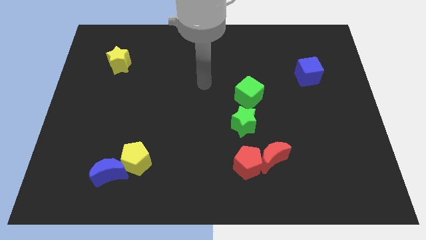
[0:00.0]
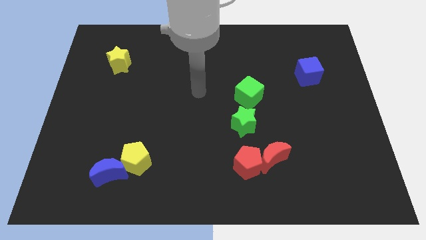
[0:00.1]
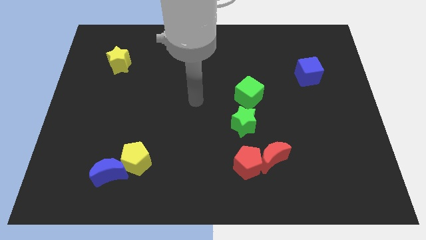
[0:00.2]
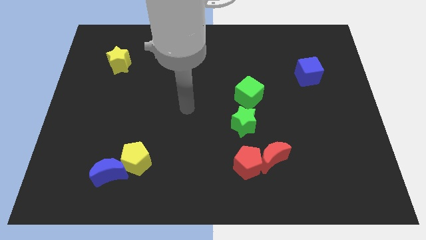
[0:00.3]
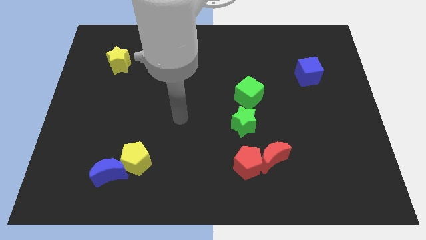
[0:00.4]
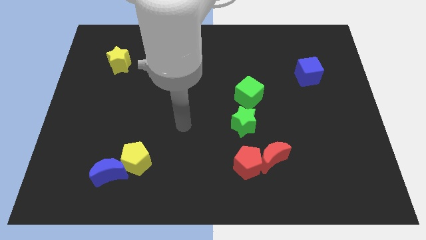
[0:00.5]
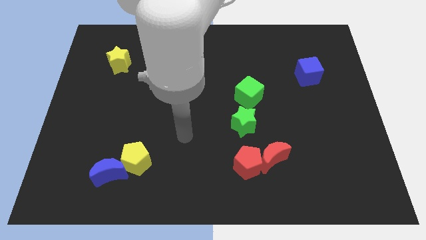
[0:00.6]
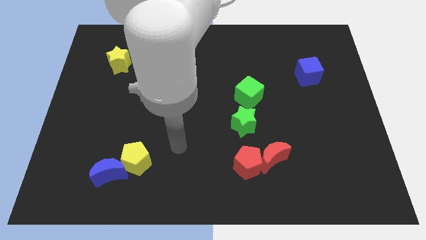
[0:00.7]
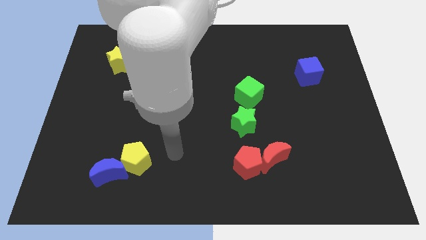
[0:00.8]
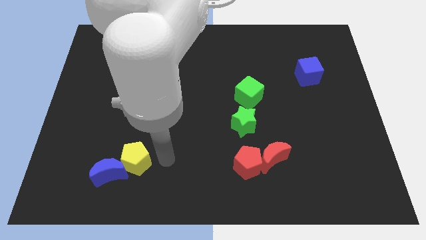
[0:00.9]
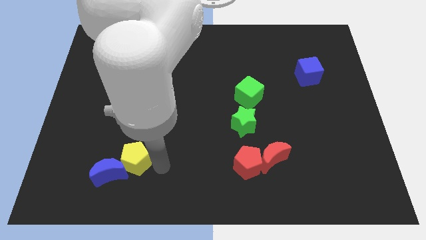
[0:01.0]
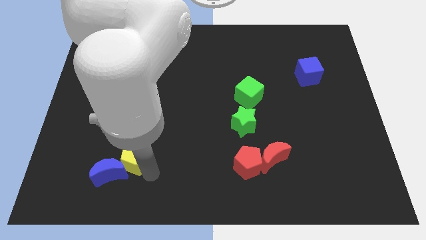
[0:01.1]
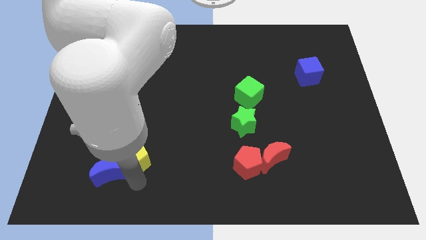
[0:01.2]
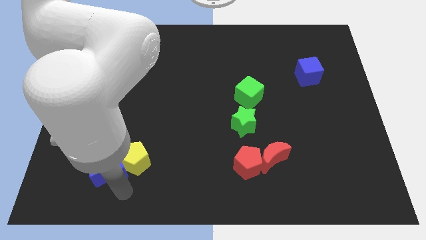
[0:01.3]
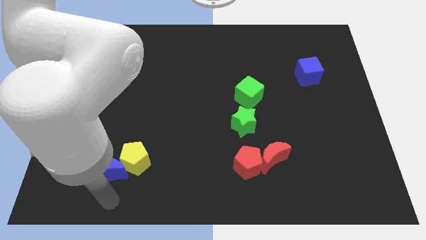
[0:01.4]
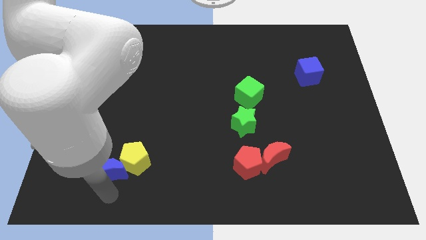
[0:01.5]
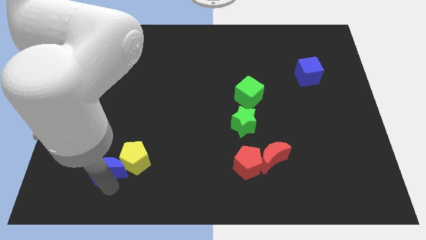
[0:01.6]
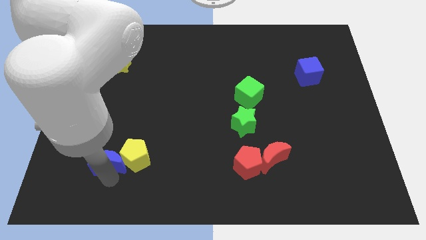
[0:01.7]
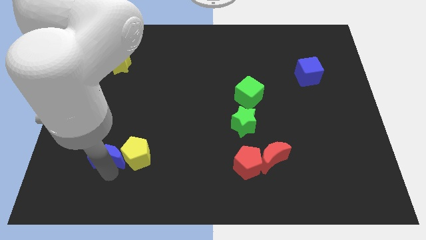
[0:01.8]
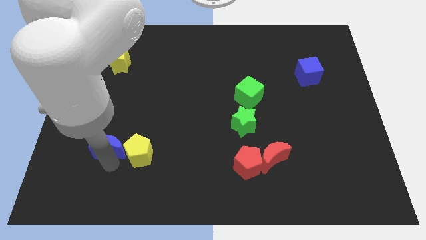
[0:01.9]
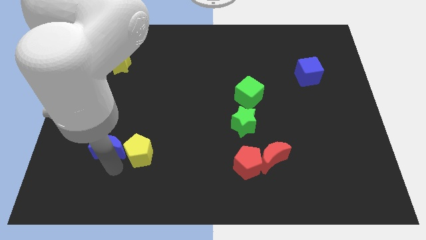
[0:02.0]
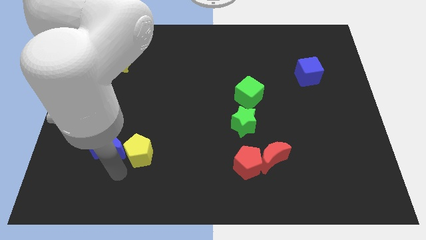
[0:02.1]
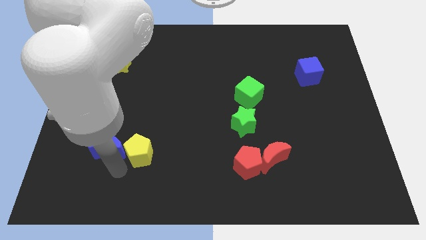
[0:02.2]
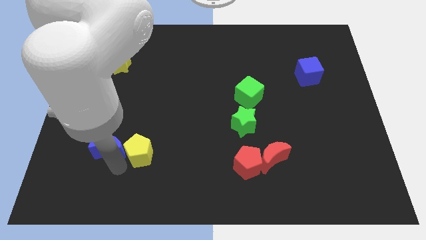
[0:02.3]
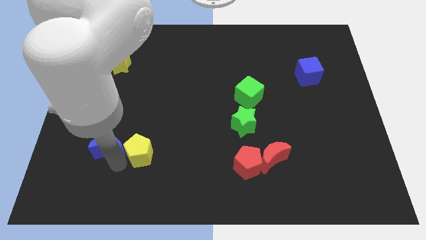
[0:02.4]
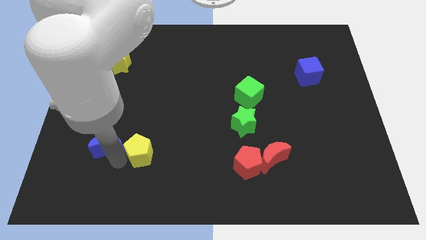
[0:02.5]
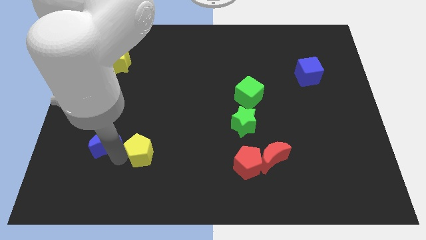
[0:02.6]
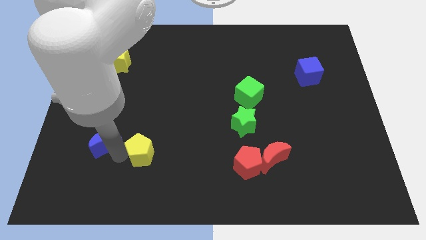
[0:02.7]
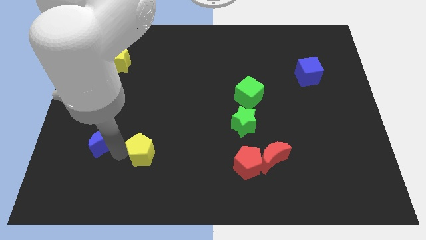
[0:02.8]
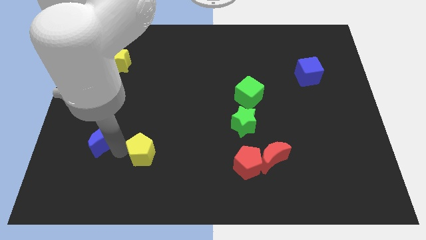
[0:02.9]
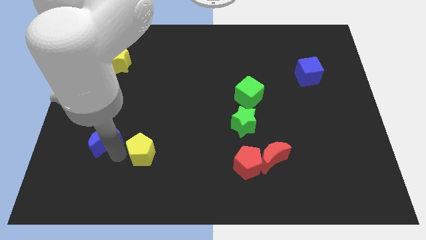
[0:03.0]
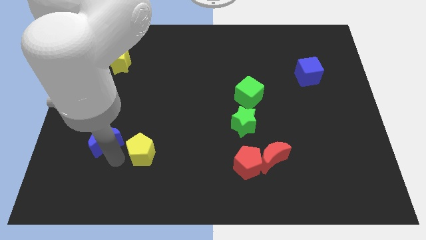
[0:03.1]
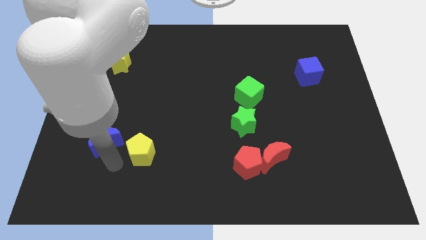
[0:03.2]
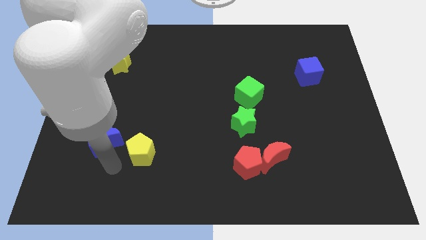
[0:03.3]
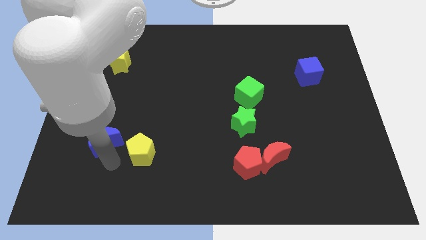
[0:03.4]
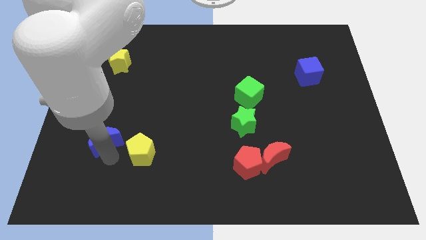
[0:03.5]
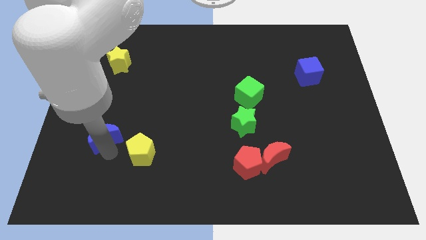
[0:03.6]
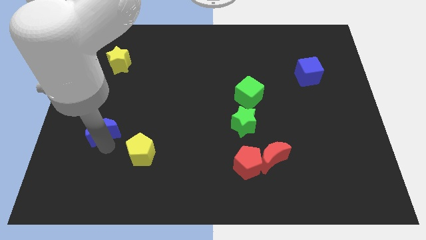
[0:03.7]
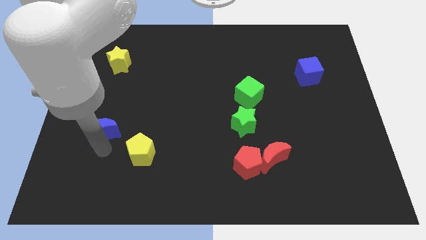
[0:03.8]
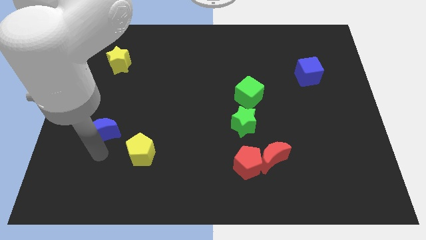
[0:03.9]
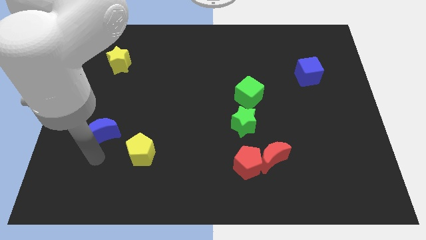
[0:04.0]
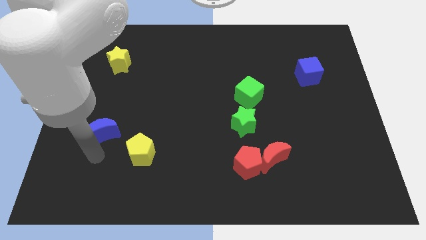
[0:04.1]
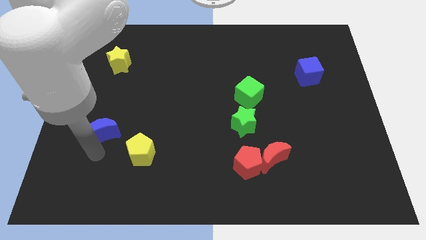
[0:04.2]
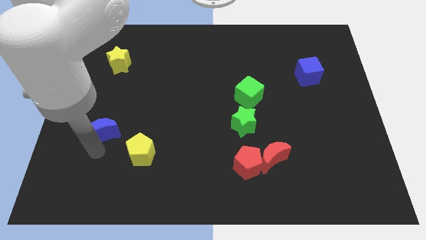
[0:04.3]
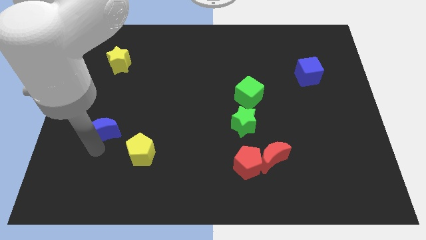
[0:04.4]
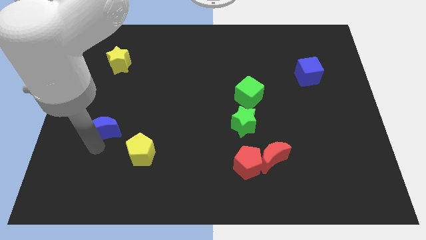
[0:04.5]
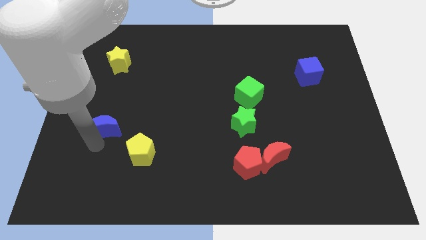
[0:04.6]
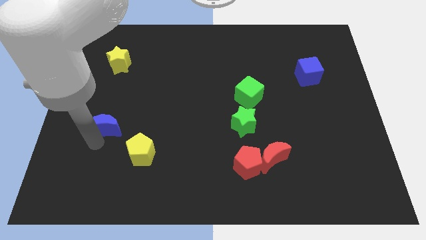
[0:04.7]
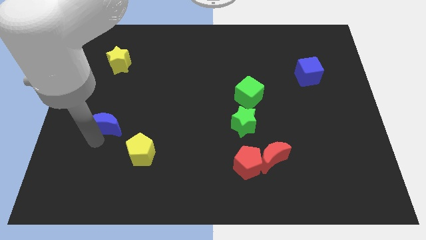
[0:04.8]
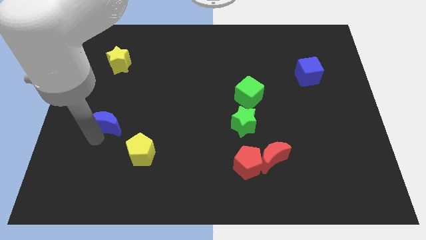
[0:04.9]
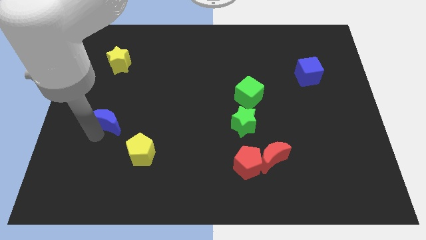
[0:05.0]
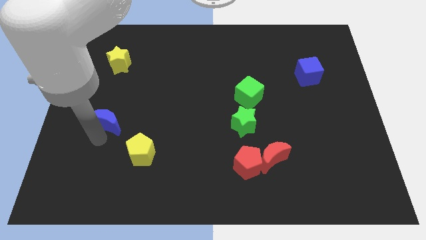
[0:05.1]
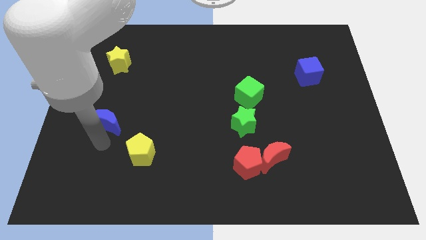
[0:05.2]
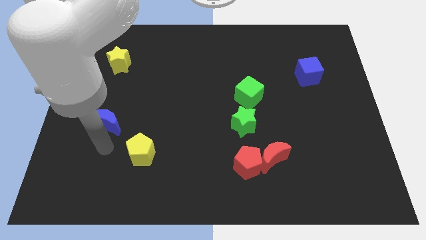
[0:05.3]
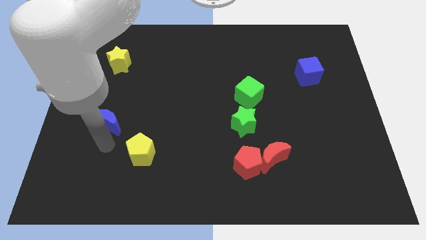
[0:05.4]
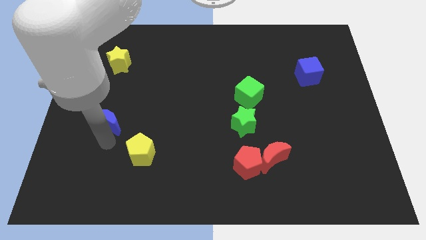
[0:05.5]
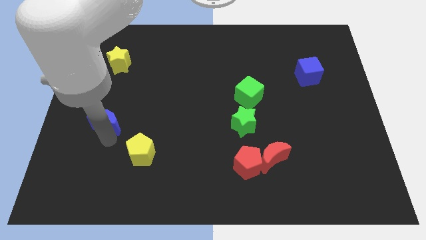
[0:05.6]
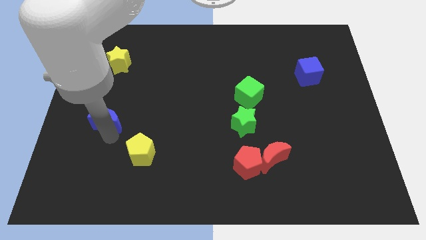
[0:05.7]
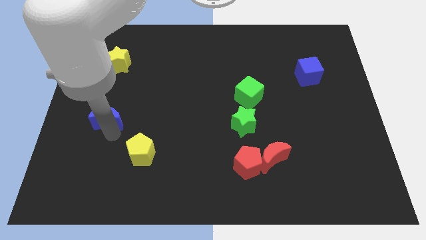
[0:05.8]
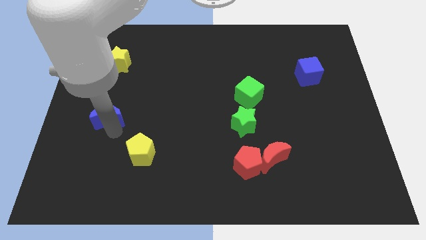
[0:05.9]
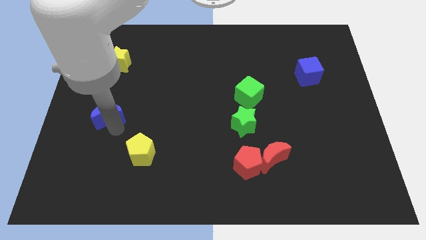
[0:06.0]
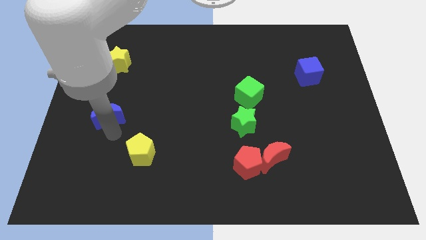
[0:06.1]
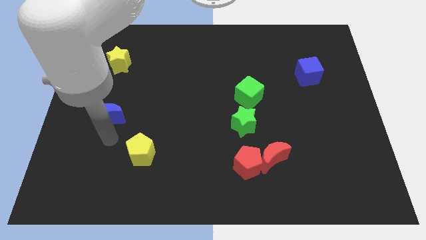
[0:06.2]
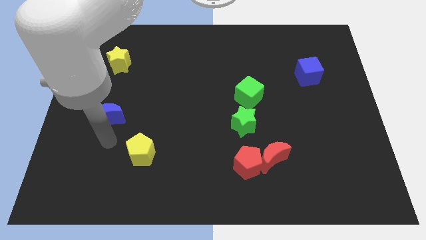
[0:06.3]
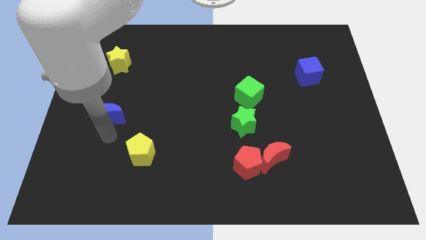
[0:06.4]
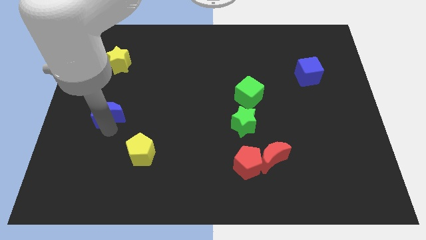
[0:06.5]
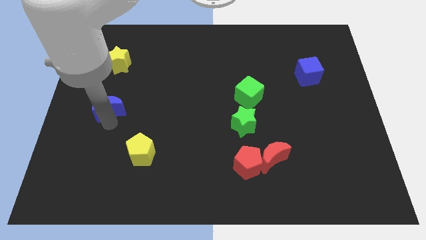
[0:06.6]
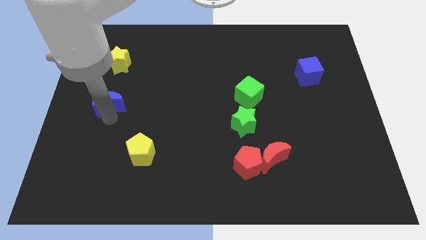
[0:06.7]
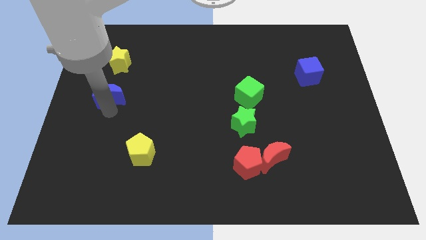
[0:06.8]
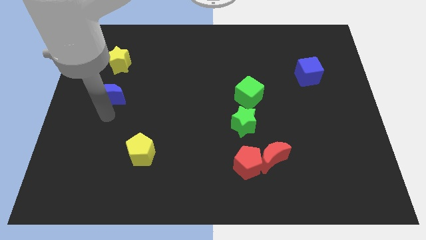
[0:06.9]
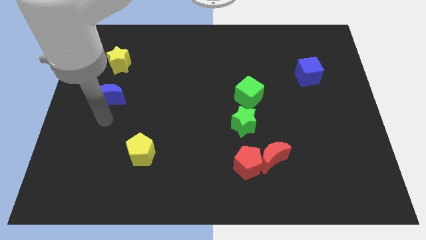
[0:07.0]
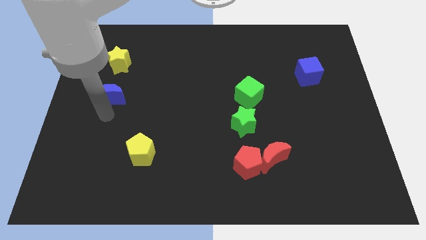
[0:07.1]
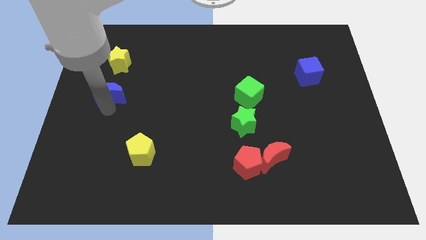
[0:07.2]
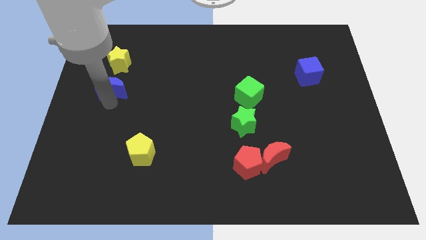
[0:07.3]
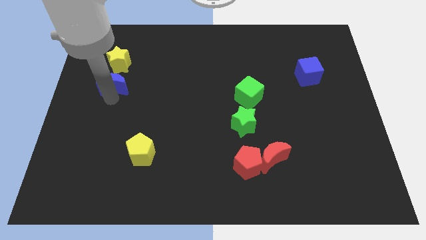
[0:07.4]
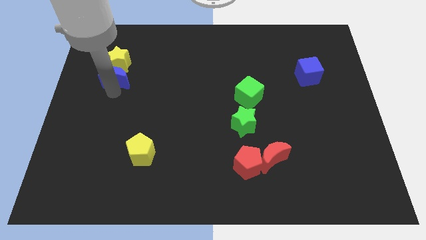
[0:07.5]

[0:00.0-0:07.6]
push the blue moon towards the yellow star
